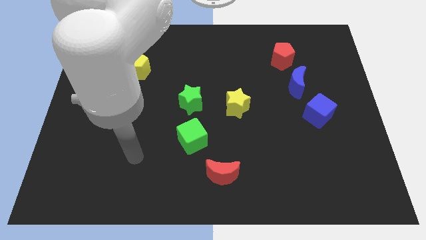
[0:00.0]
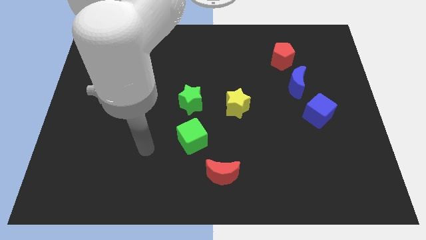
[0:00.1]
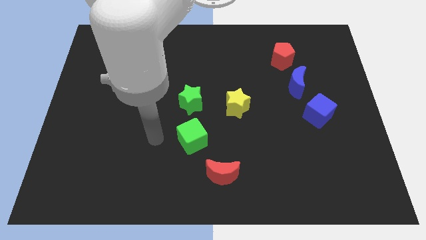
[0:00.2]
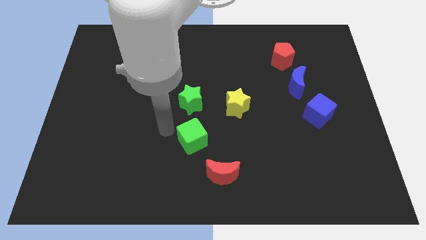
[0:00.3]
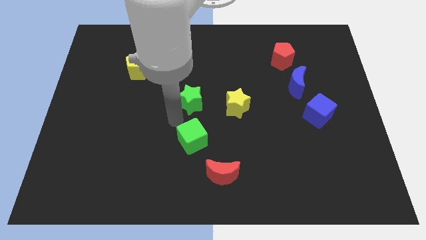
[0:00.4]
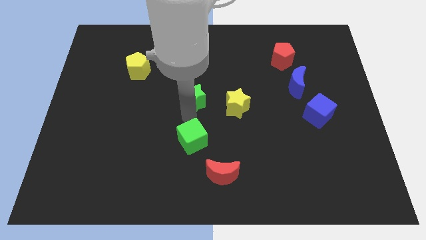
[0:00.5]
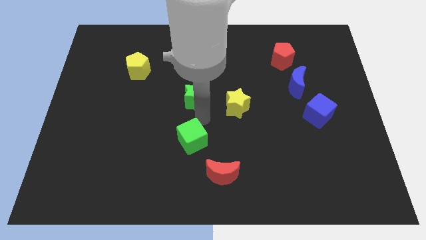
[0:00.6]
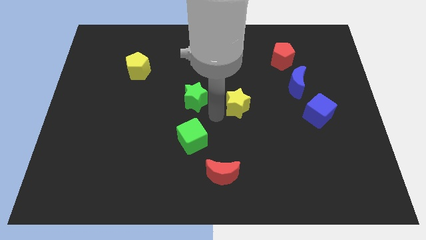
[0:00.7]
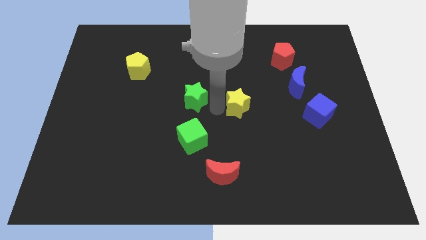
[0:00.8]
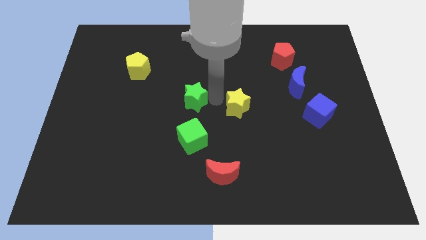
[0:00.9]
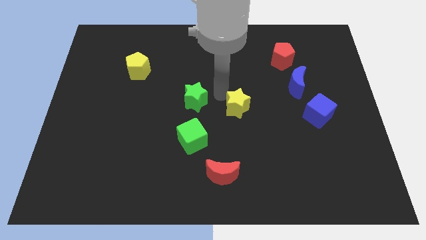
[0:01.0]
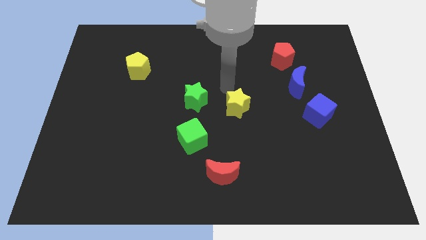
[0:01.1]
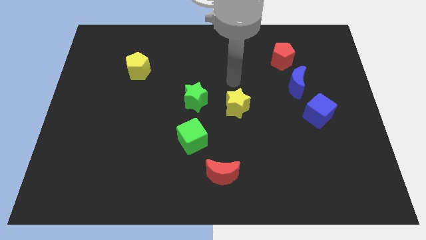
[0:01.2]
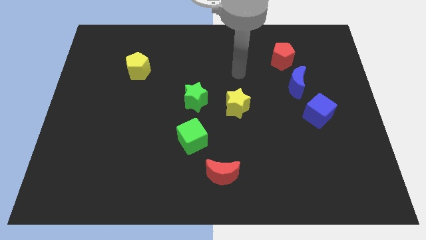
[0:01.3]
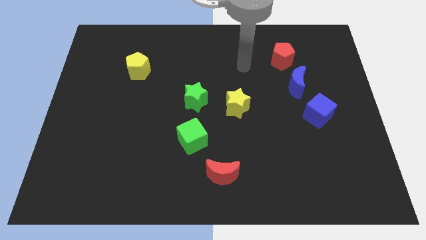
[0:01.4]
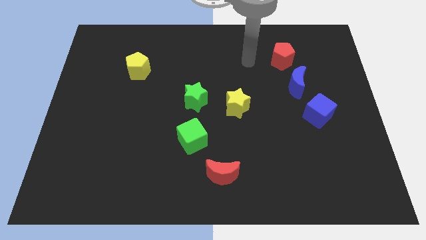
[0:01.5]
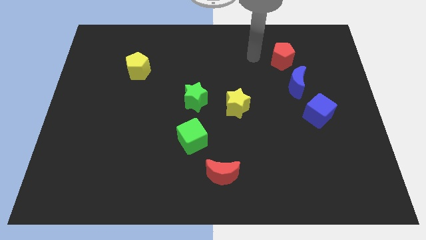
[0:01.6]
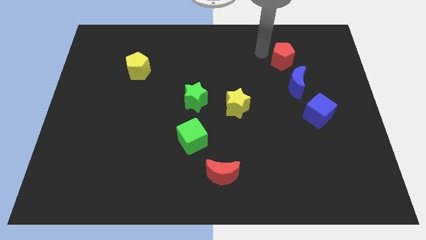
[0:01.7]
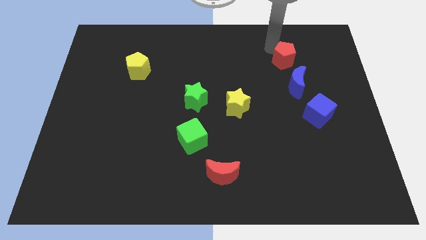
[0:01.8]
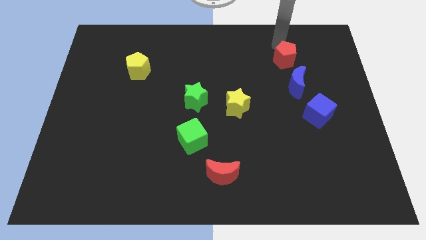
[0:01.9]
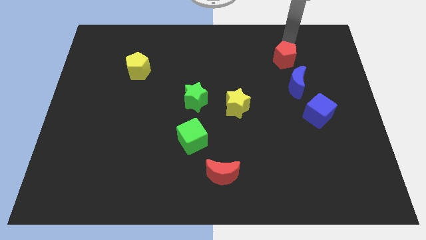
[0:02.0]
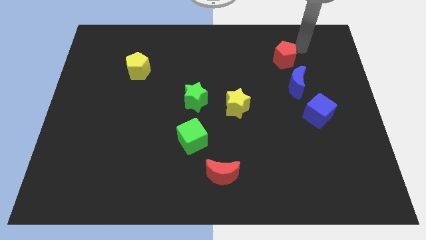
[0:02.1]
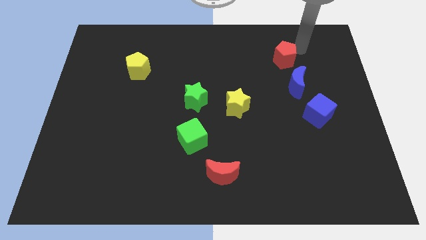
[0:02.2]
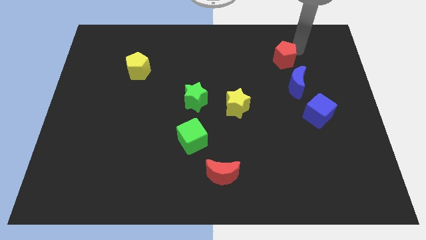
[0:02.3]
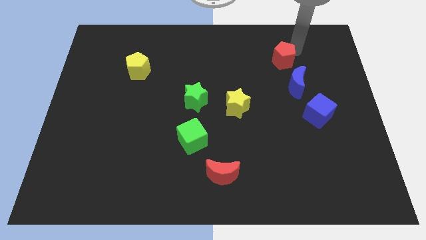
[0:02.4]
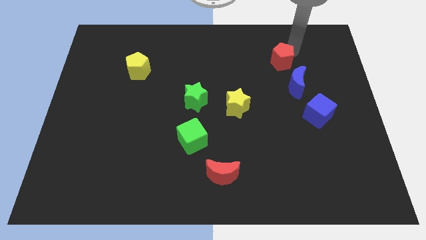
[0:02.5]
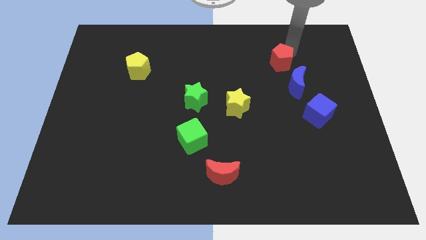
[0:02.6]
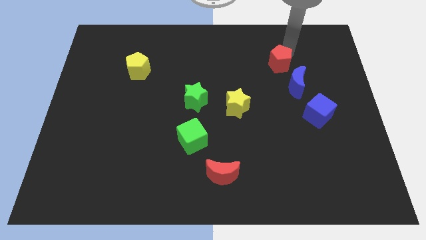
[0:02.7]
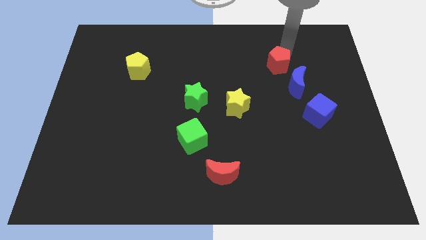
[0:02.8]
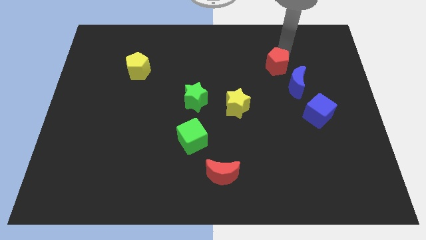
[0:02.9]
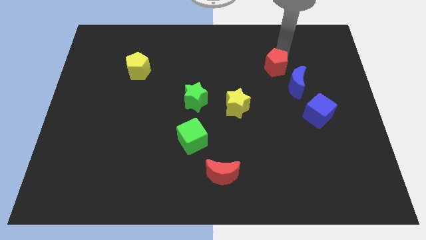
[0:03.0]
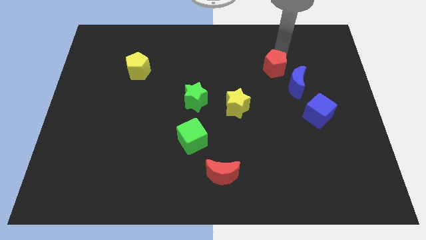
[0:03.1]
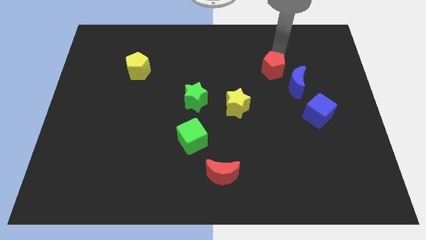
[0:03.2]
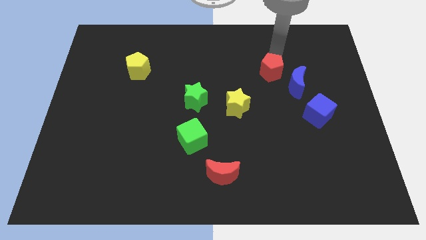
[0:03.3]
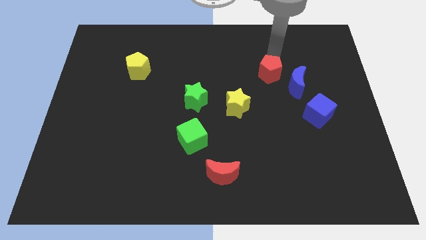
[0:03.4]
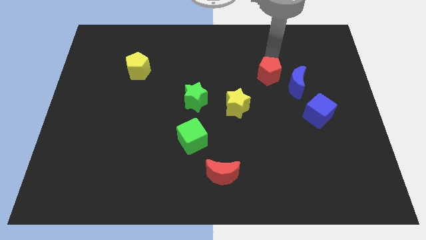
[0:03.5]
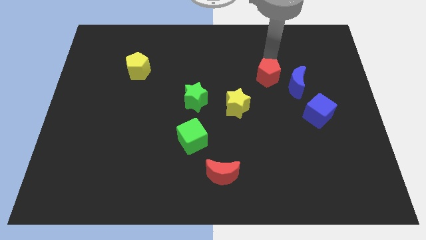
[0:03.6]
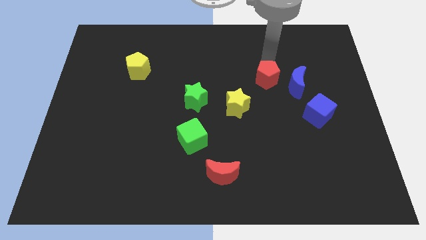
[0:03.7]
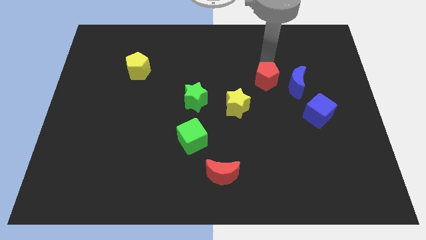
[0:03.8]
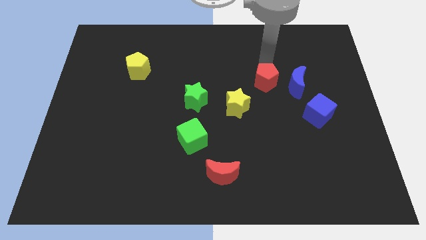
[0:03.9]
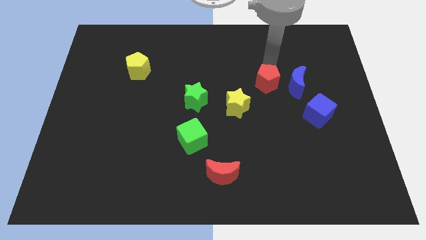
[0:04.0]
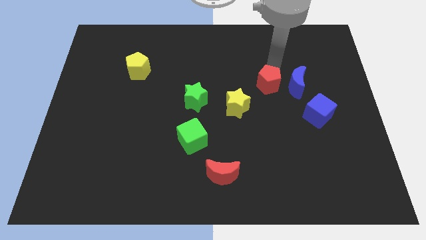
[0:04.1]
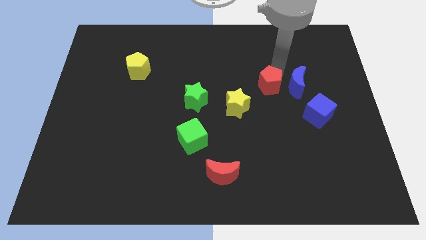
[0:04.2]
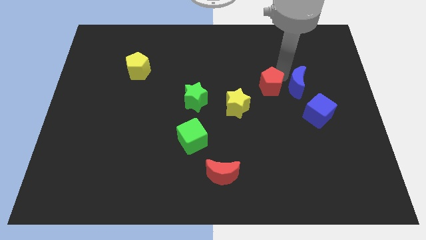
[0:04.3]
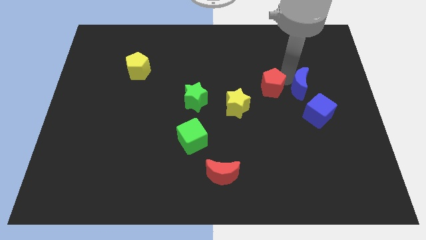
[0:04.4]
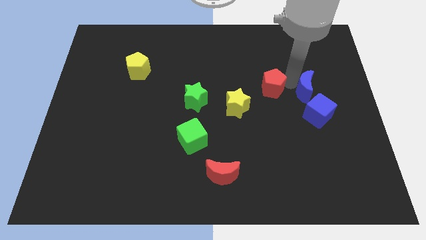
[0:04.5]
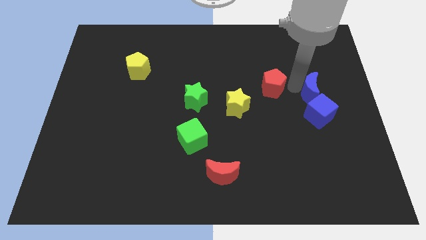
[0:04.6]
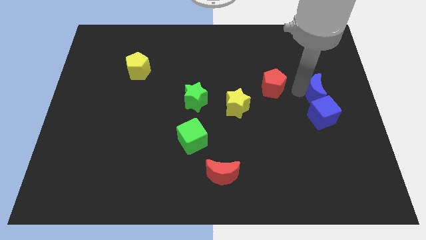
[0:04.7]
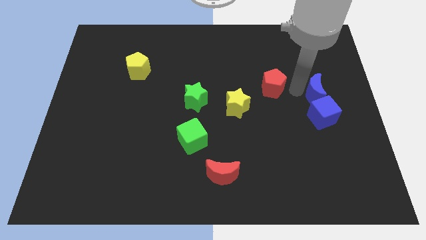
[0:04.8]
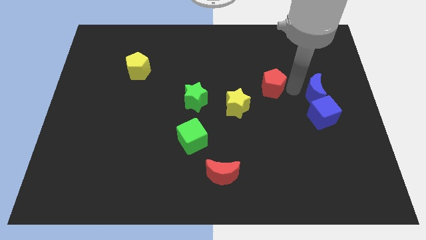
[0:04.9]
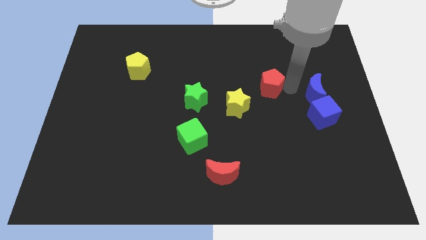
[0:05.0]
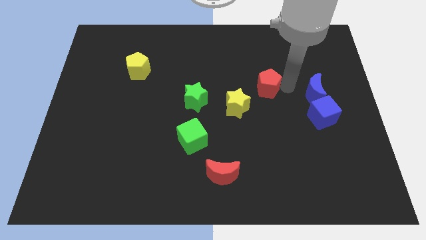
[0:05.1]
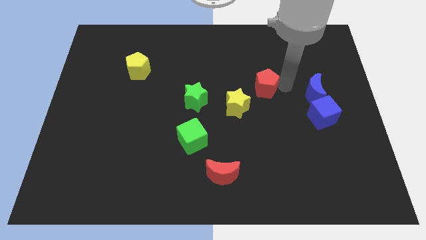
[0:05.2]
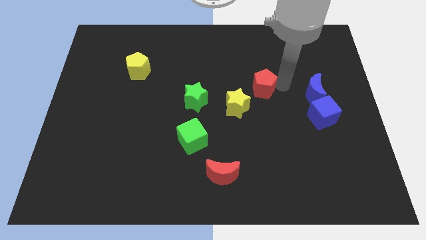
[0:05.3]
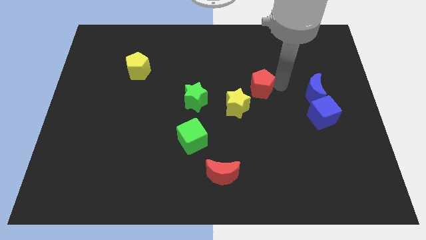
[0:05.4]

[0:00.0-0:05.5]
slide the red pentagon to the center of the board

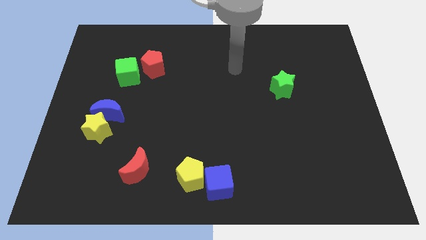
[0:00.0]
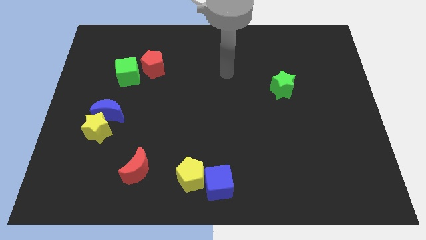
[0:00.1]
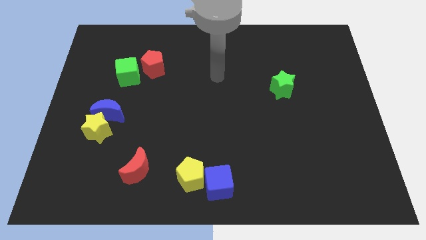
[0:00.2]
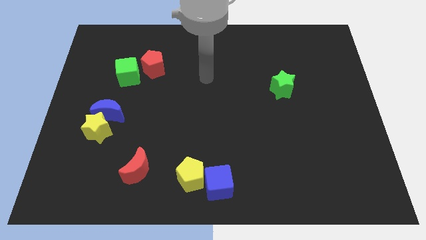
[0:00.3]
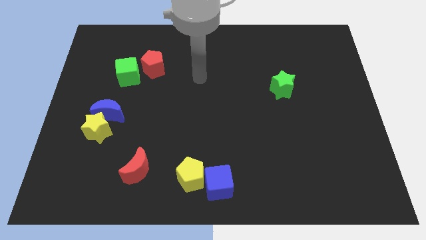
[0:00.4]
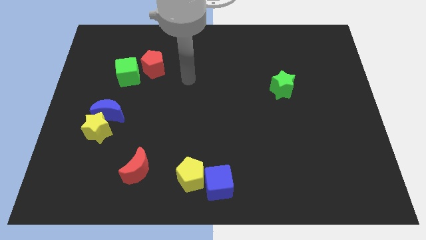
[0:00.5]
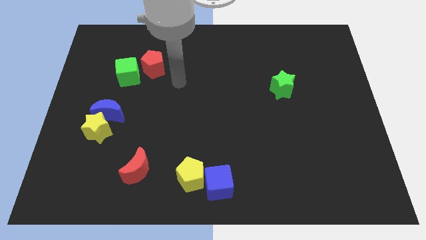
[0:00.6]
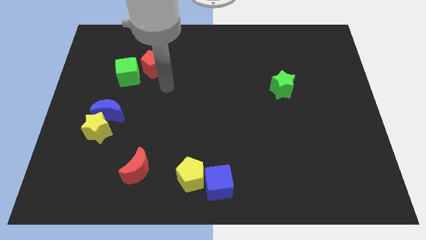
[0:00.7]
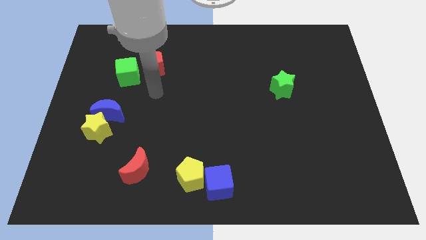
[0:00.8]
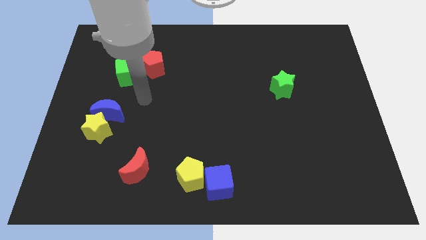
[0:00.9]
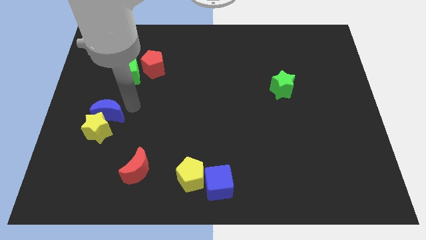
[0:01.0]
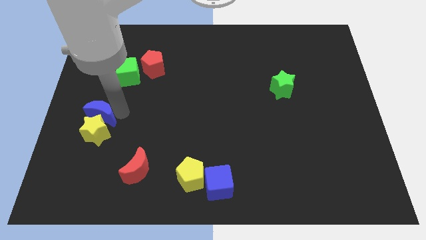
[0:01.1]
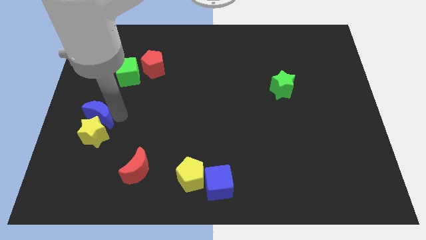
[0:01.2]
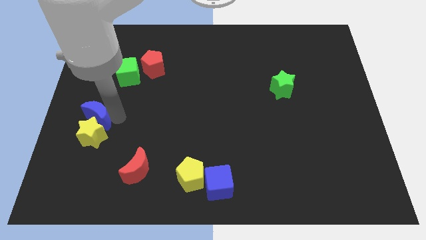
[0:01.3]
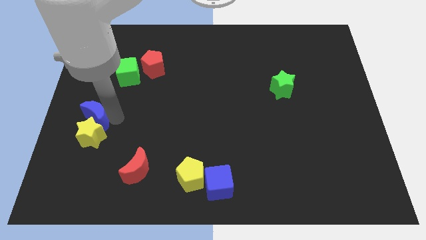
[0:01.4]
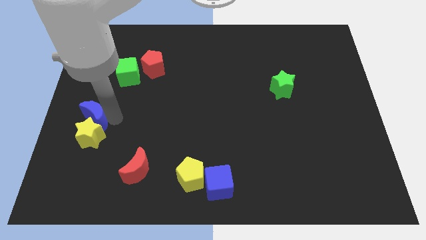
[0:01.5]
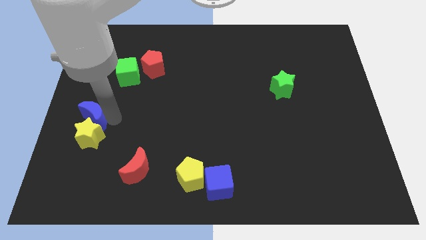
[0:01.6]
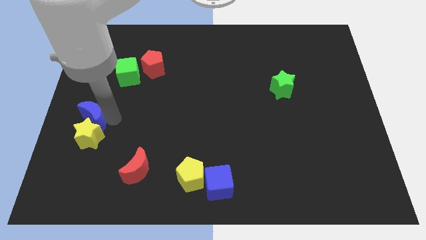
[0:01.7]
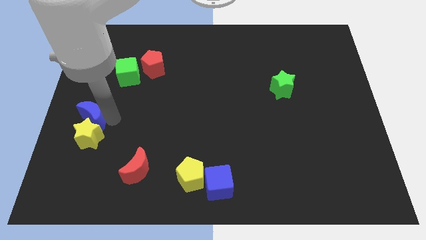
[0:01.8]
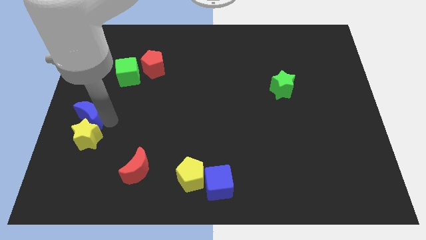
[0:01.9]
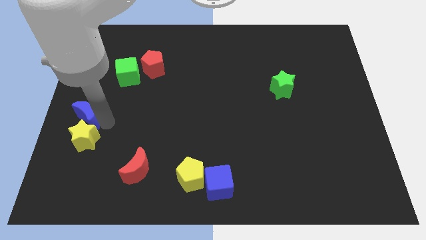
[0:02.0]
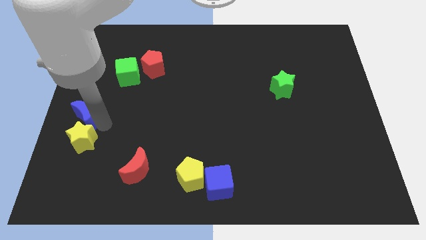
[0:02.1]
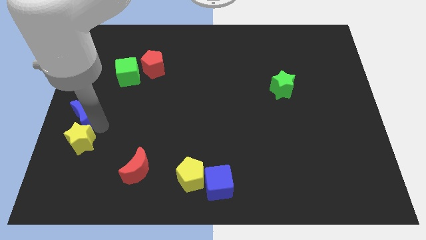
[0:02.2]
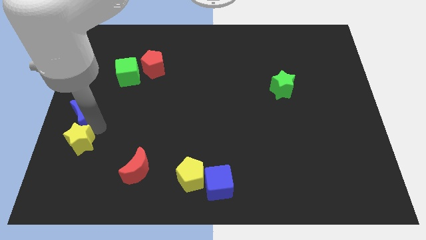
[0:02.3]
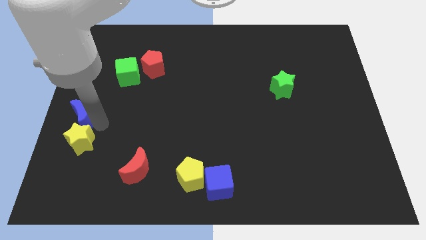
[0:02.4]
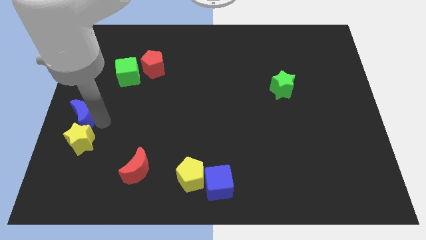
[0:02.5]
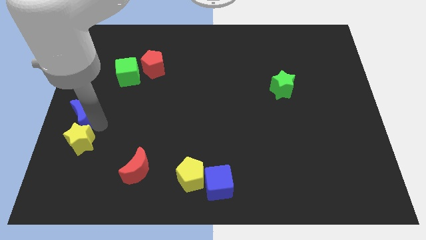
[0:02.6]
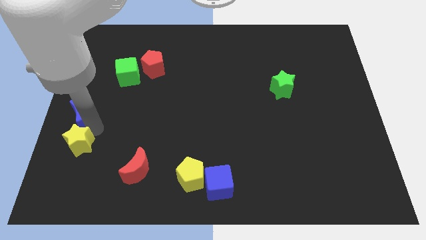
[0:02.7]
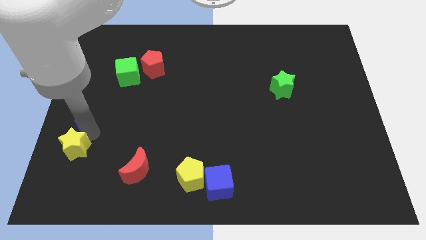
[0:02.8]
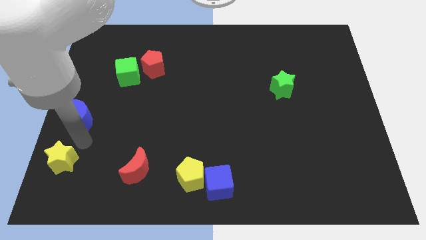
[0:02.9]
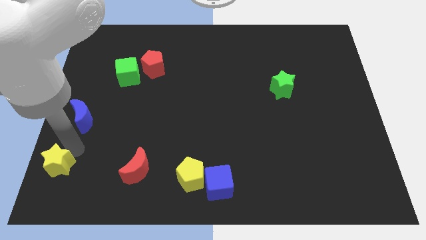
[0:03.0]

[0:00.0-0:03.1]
push the yellow star to the bottom left
